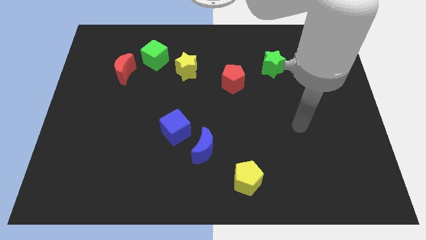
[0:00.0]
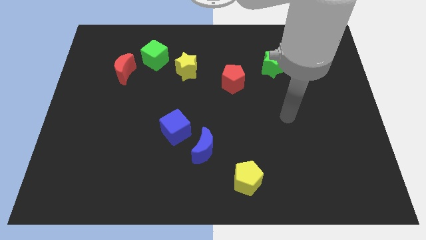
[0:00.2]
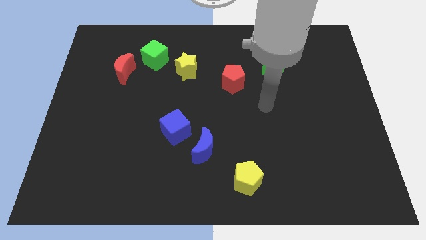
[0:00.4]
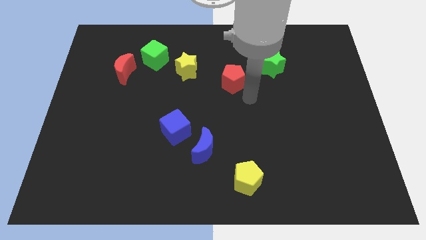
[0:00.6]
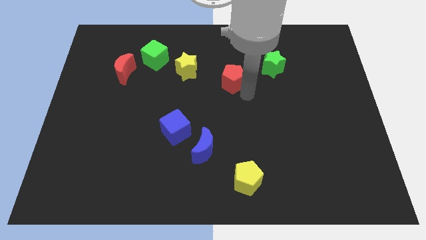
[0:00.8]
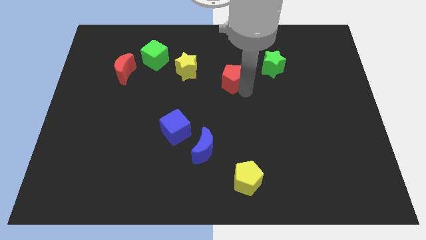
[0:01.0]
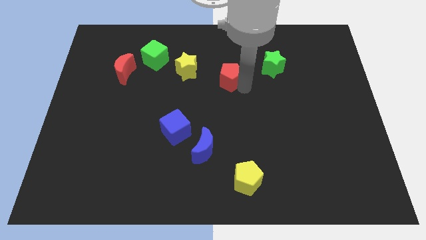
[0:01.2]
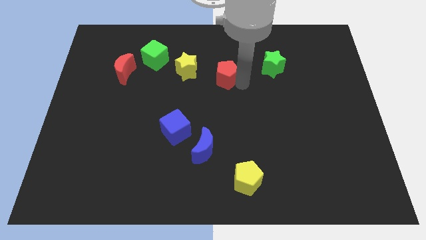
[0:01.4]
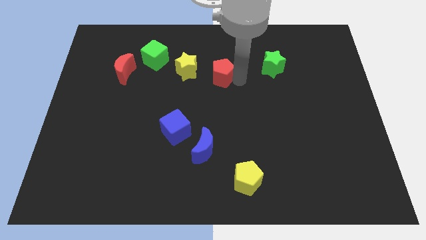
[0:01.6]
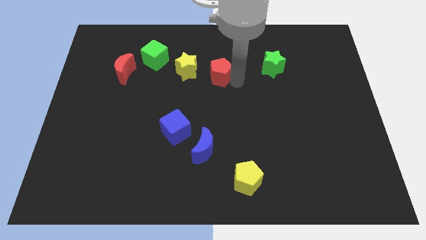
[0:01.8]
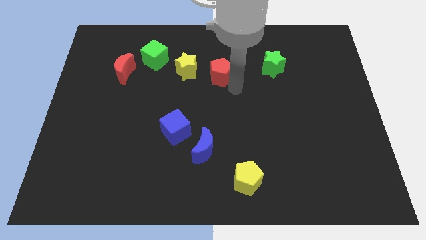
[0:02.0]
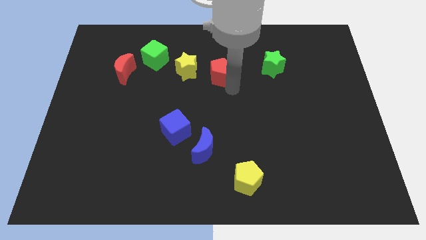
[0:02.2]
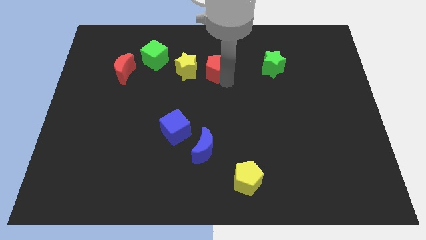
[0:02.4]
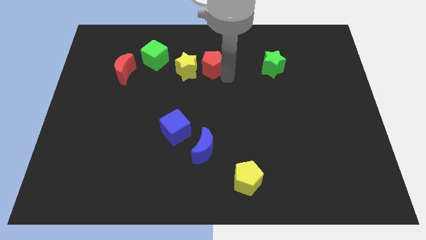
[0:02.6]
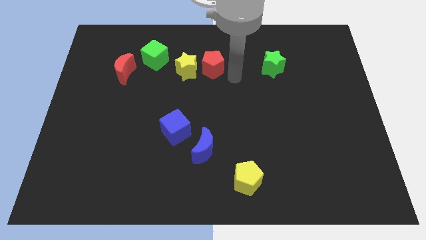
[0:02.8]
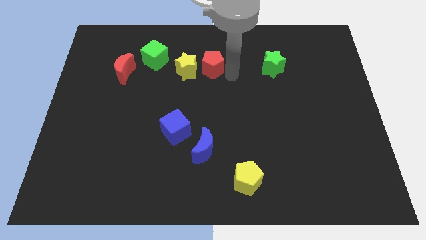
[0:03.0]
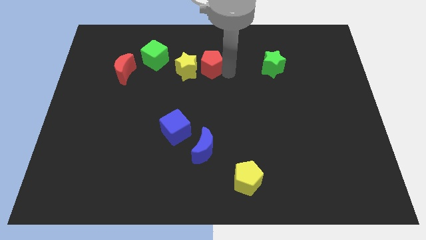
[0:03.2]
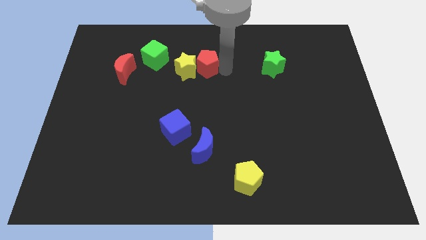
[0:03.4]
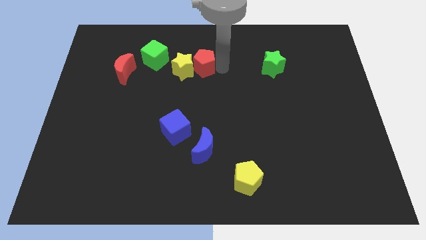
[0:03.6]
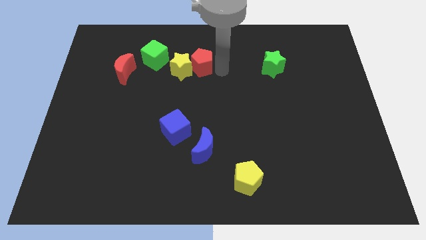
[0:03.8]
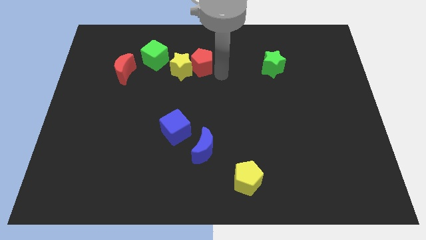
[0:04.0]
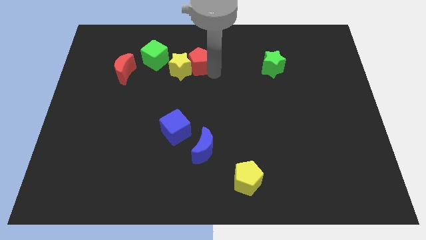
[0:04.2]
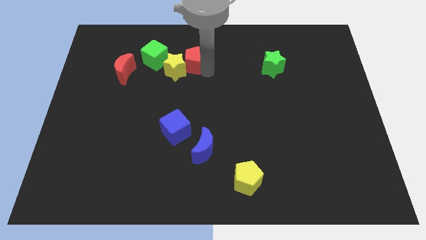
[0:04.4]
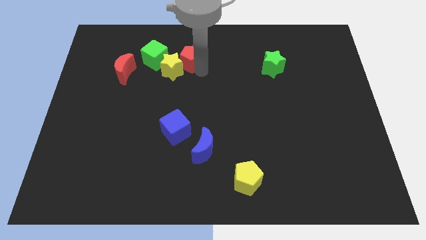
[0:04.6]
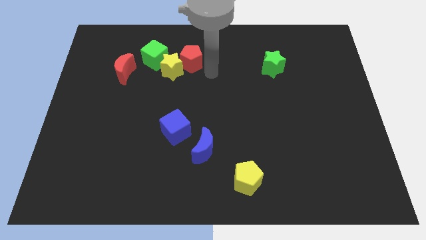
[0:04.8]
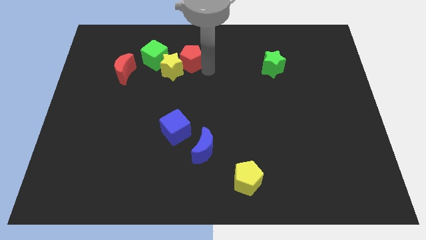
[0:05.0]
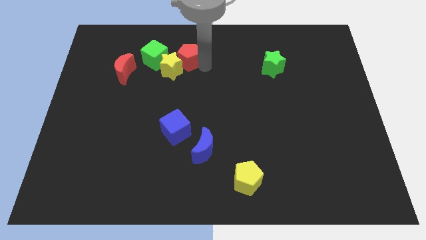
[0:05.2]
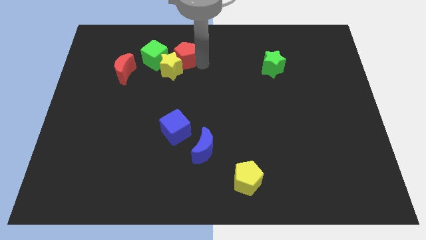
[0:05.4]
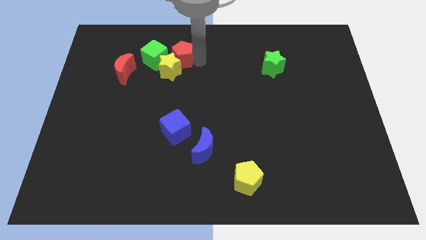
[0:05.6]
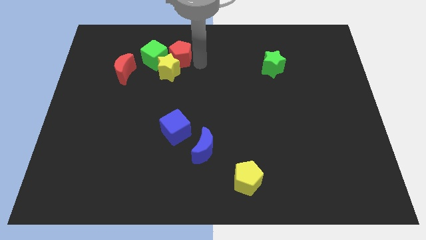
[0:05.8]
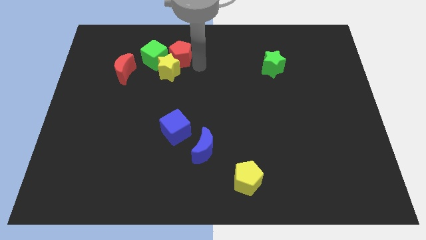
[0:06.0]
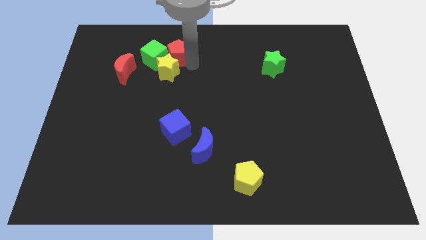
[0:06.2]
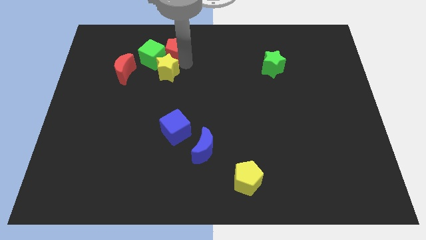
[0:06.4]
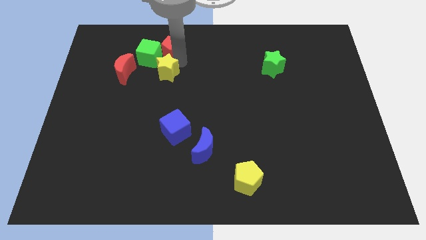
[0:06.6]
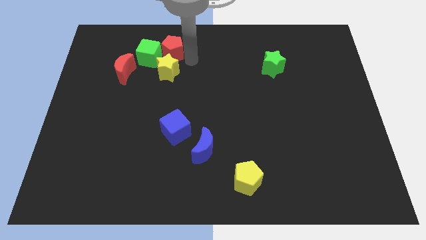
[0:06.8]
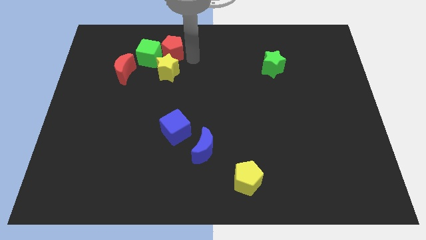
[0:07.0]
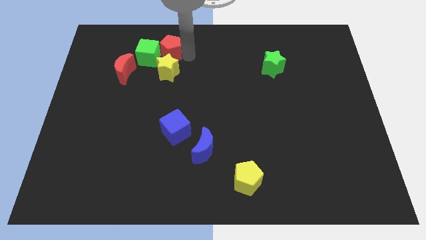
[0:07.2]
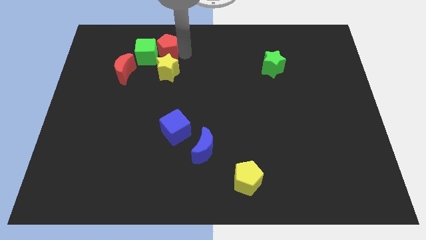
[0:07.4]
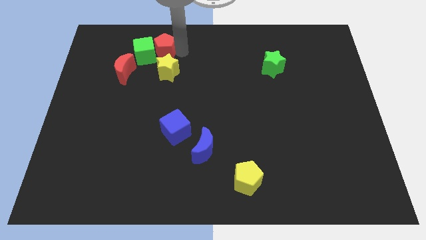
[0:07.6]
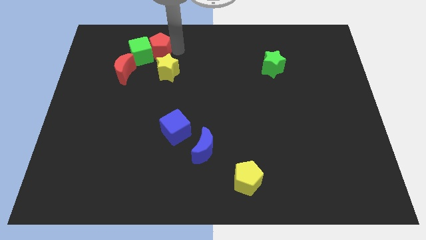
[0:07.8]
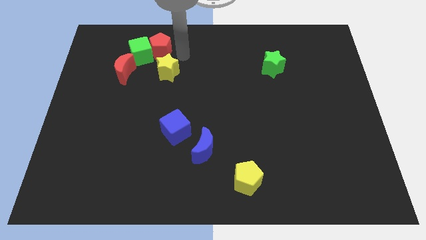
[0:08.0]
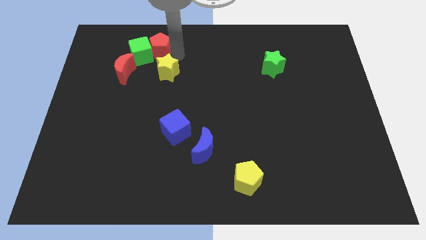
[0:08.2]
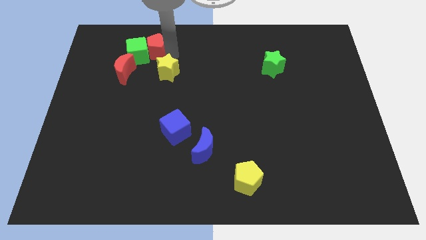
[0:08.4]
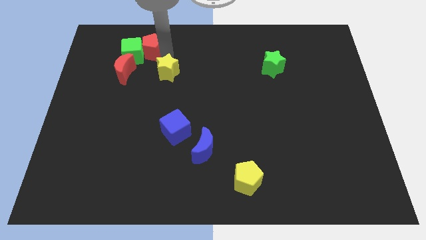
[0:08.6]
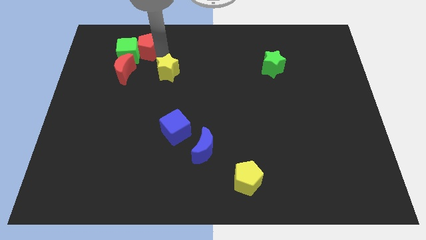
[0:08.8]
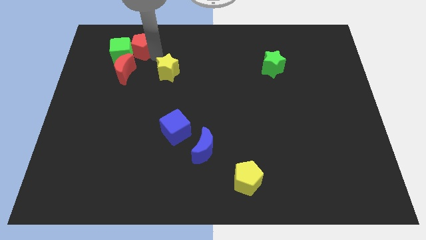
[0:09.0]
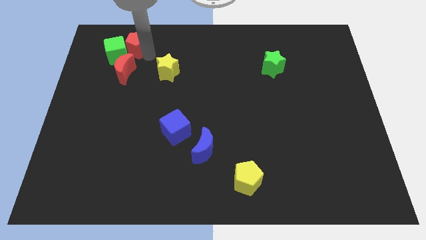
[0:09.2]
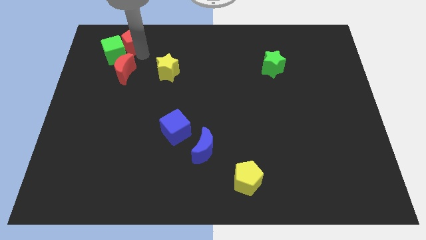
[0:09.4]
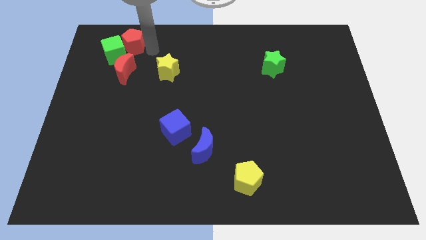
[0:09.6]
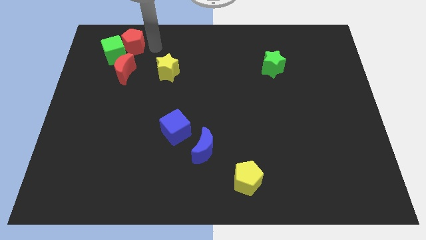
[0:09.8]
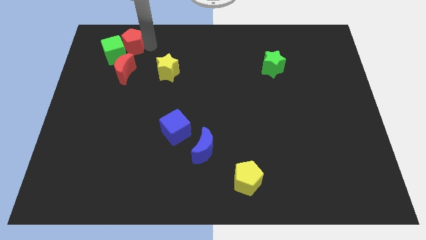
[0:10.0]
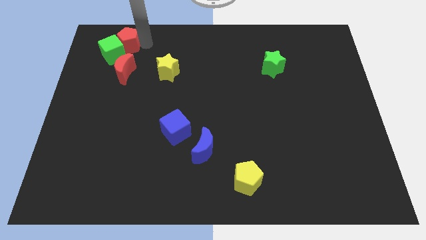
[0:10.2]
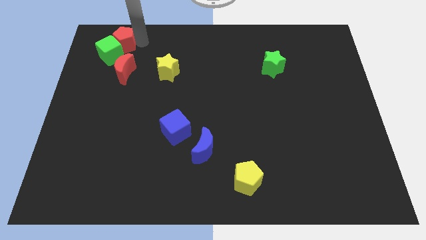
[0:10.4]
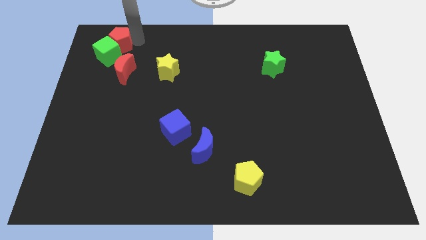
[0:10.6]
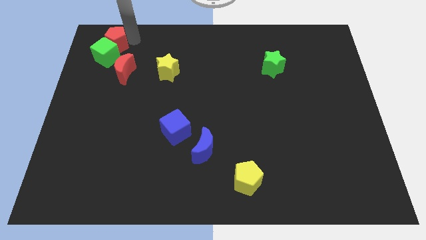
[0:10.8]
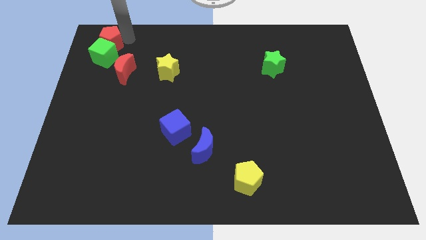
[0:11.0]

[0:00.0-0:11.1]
slide the red pentagon to the top left of the board
